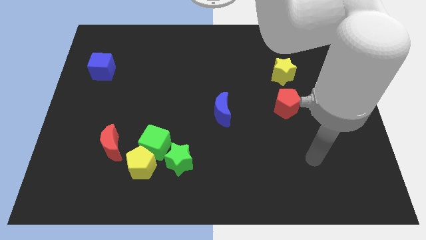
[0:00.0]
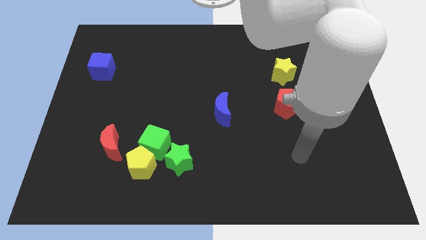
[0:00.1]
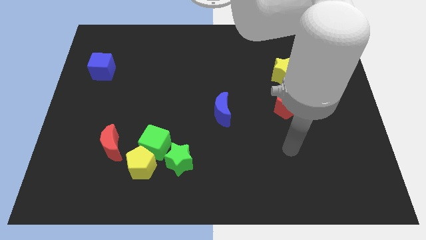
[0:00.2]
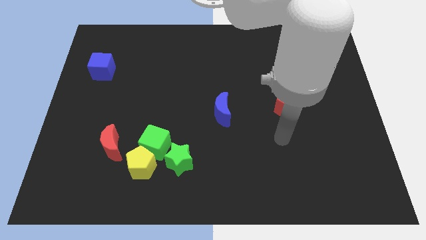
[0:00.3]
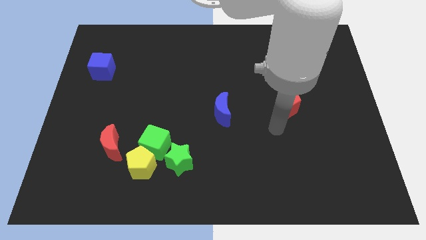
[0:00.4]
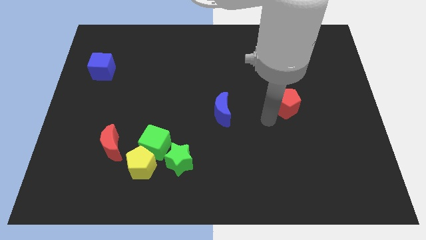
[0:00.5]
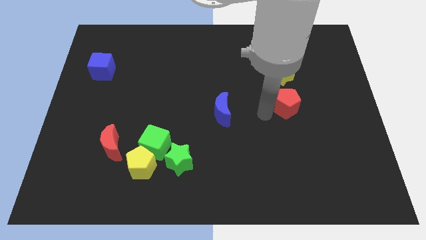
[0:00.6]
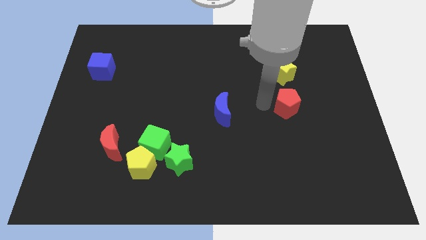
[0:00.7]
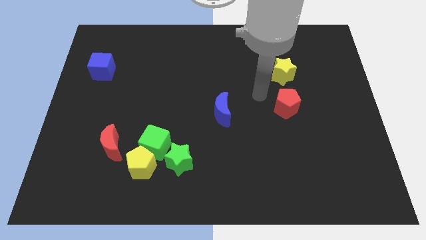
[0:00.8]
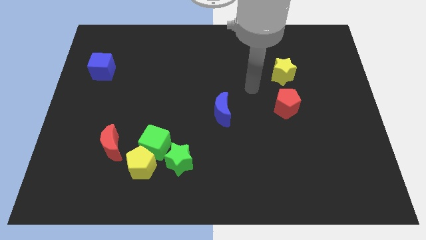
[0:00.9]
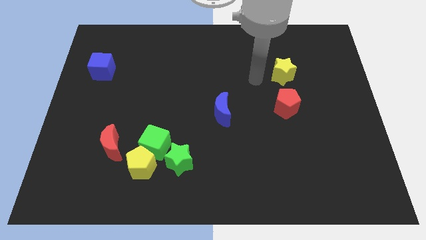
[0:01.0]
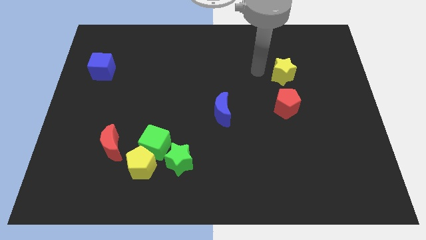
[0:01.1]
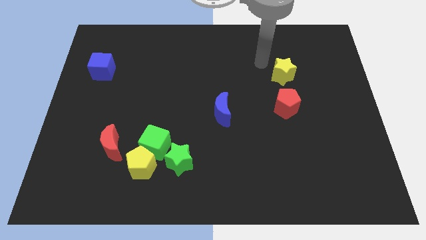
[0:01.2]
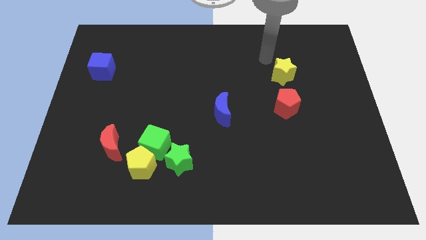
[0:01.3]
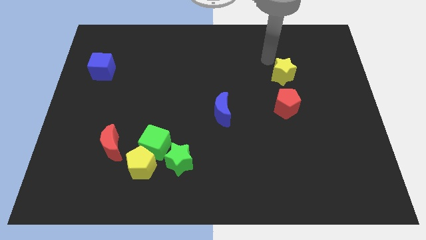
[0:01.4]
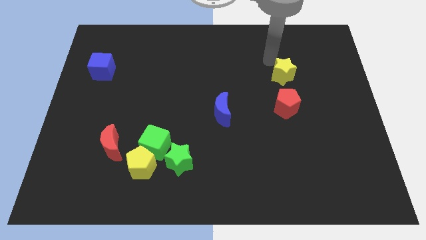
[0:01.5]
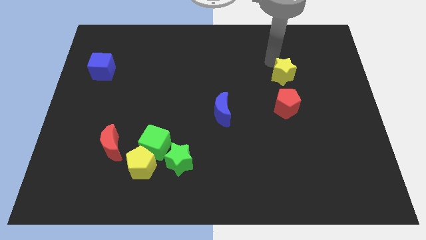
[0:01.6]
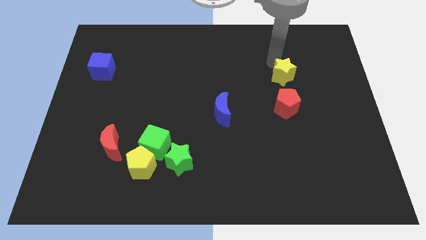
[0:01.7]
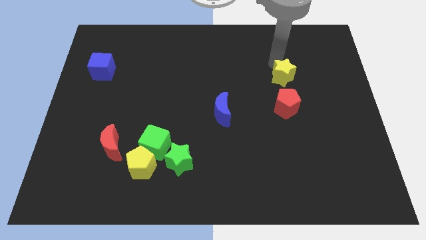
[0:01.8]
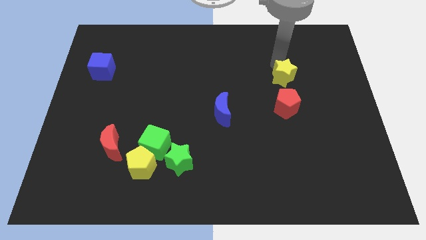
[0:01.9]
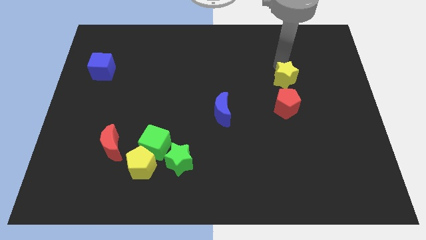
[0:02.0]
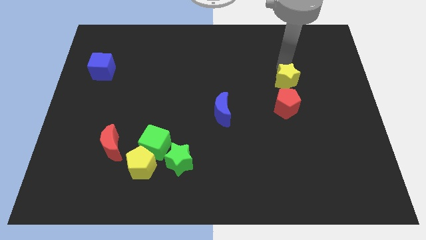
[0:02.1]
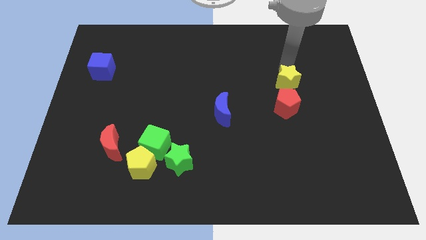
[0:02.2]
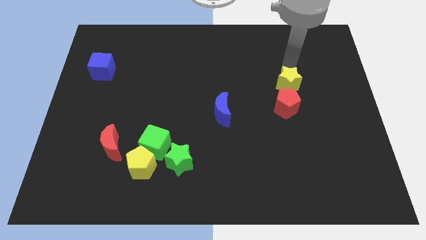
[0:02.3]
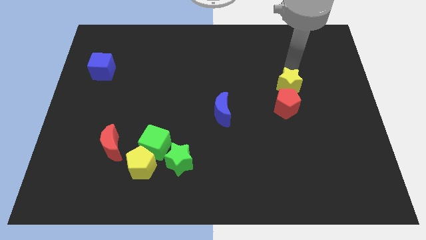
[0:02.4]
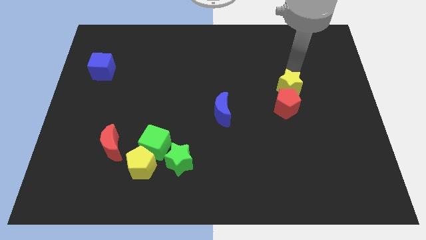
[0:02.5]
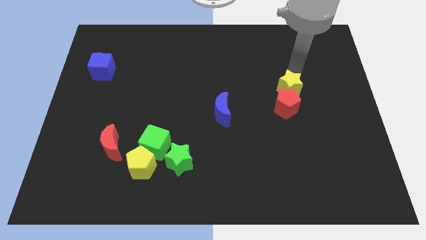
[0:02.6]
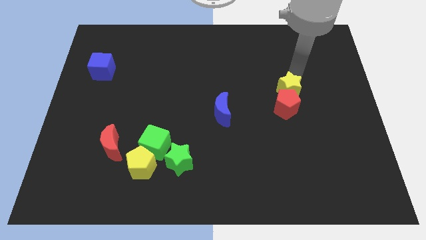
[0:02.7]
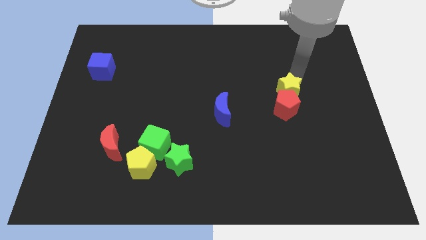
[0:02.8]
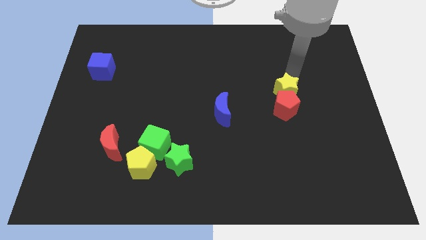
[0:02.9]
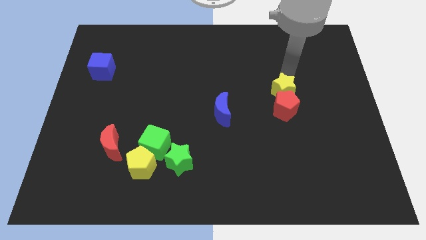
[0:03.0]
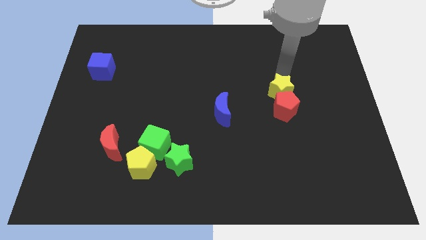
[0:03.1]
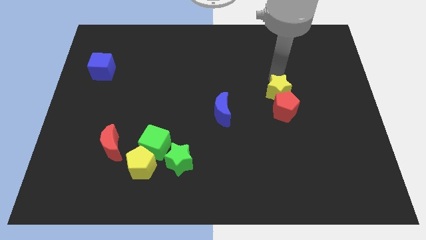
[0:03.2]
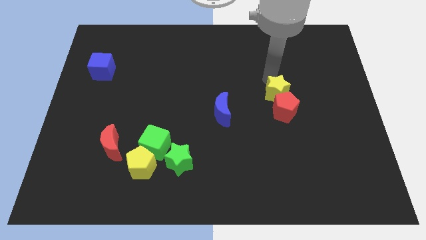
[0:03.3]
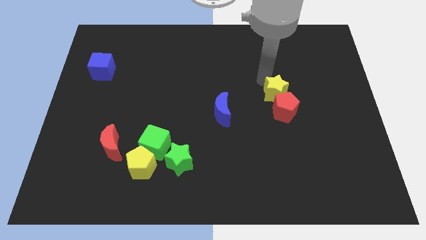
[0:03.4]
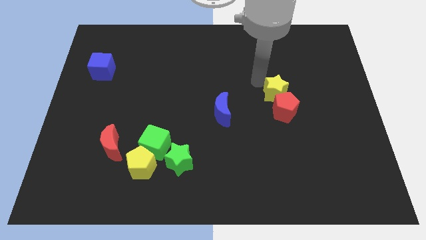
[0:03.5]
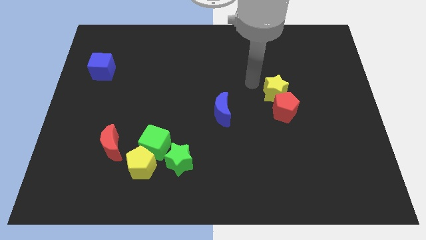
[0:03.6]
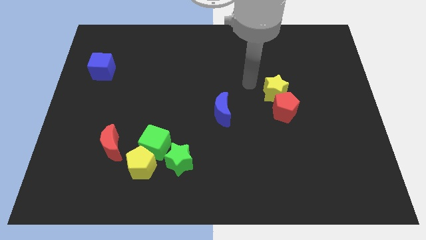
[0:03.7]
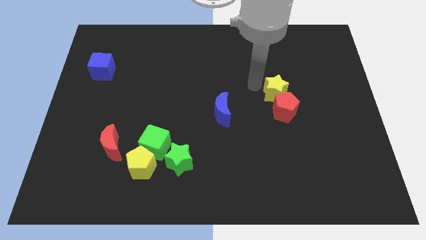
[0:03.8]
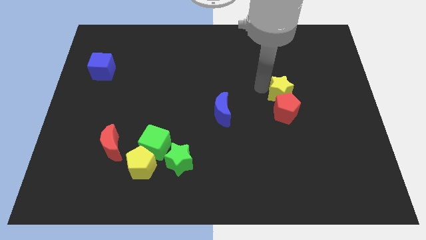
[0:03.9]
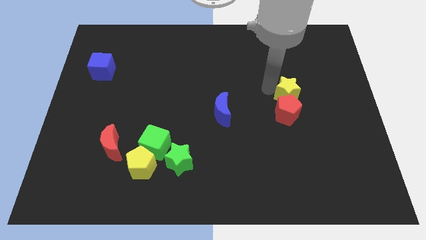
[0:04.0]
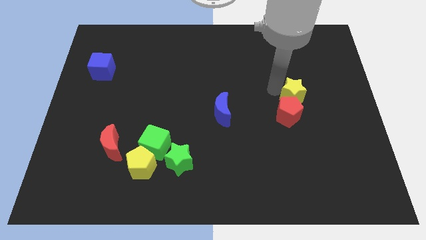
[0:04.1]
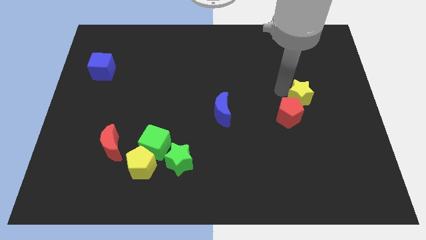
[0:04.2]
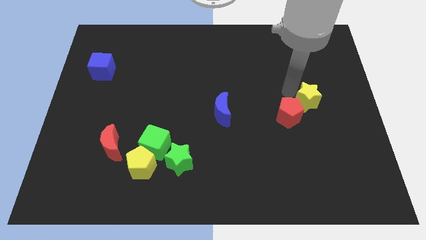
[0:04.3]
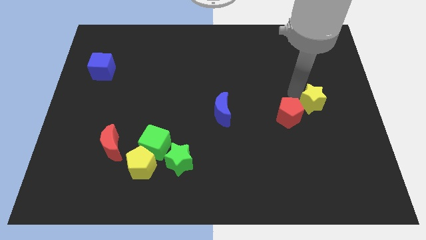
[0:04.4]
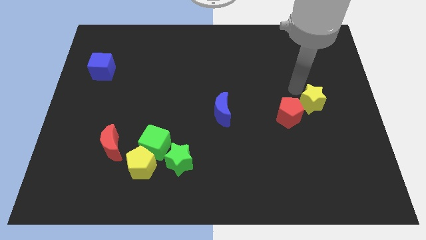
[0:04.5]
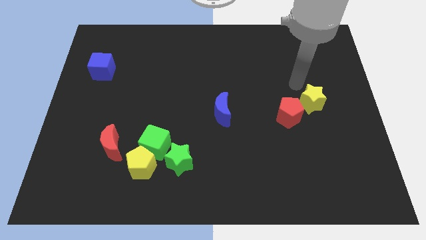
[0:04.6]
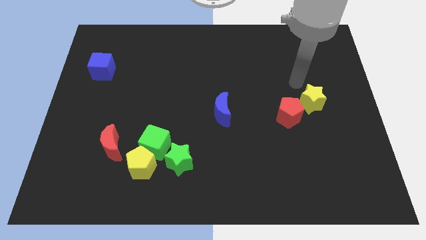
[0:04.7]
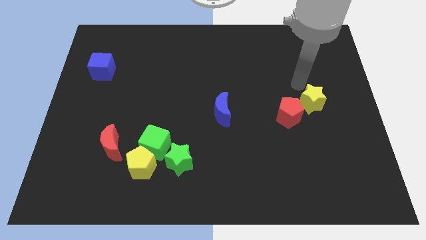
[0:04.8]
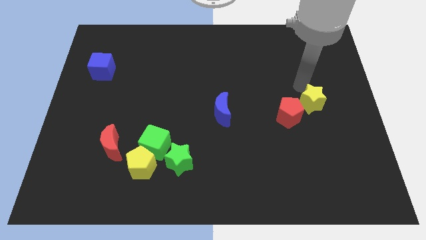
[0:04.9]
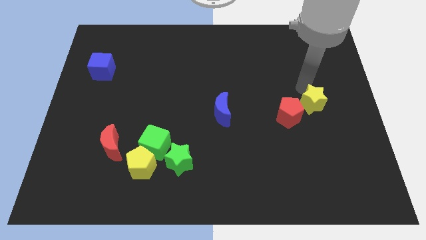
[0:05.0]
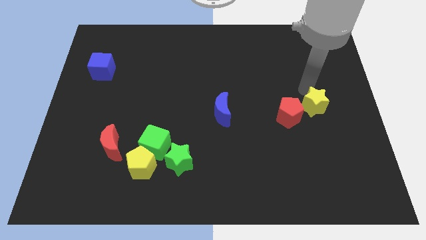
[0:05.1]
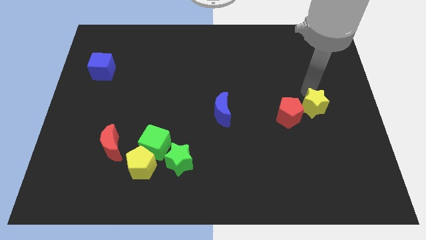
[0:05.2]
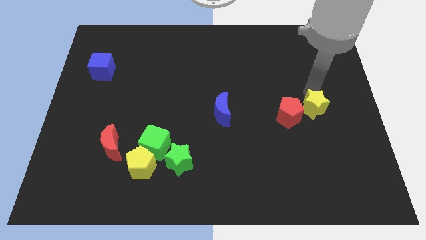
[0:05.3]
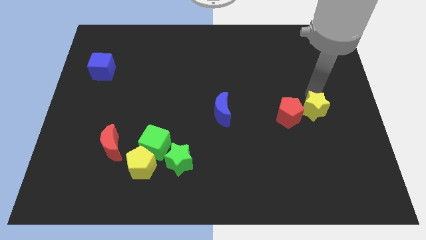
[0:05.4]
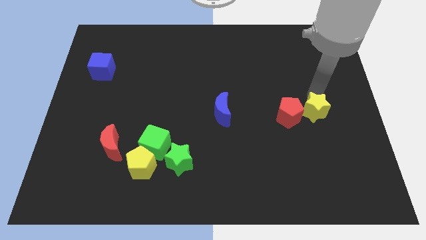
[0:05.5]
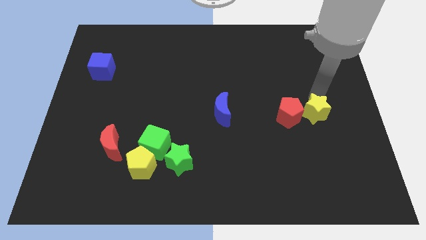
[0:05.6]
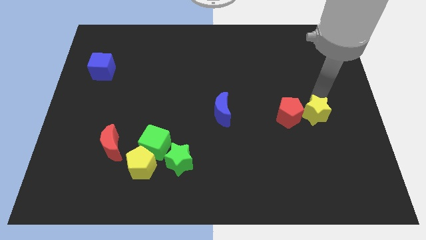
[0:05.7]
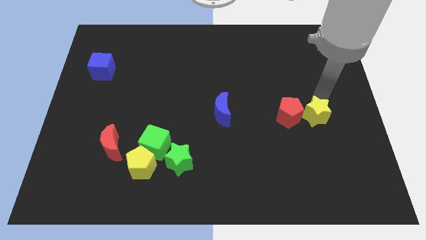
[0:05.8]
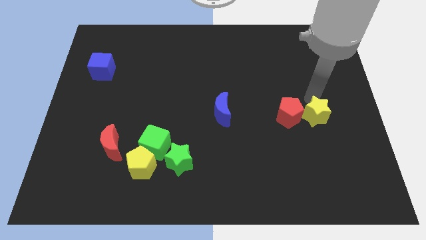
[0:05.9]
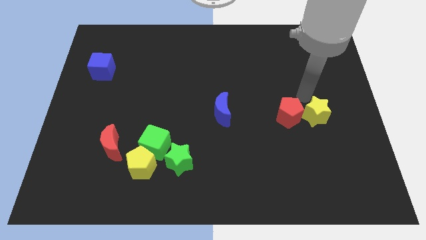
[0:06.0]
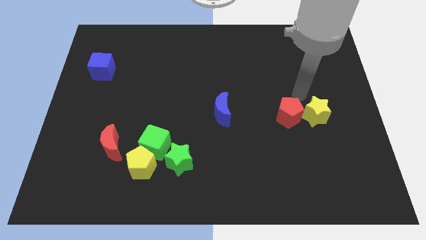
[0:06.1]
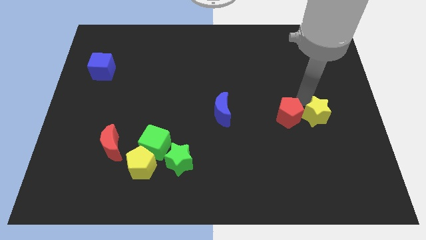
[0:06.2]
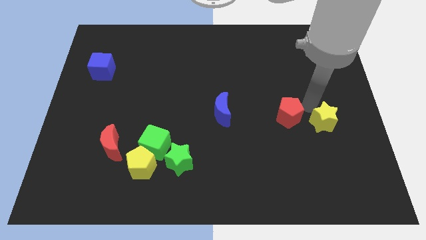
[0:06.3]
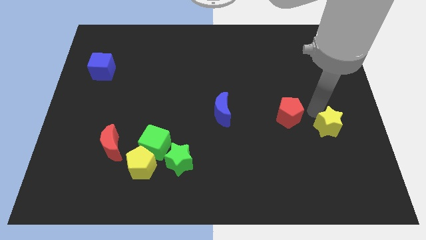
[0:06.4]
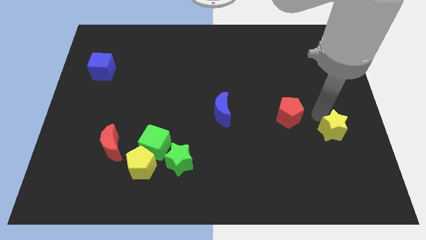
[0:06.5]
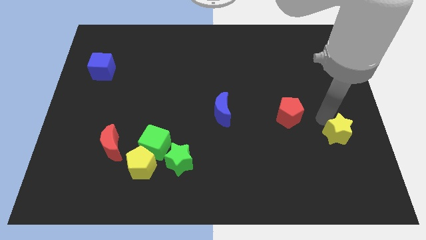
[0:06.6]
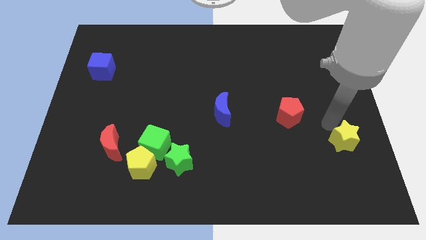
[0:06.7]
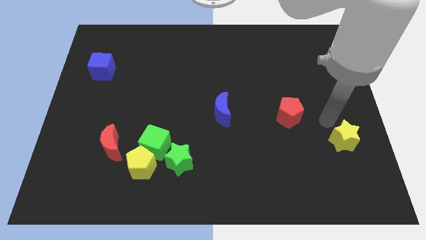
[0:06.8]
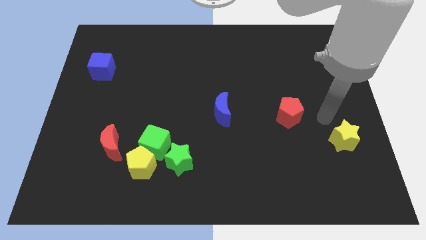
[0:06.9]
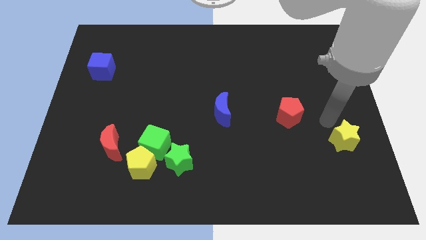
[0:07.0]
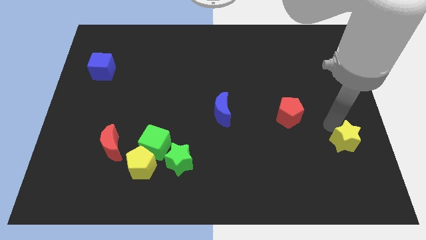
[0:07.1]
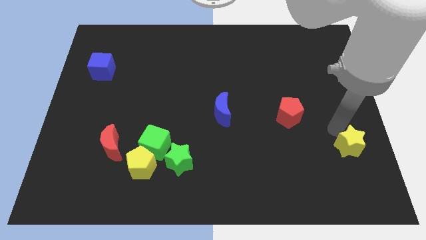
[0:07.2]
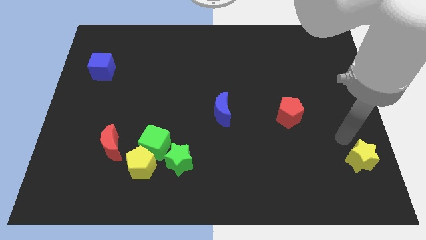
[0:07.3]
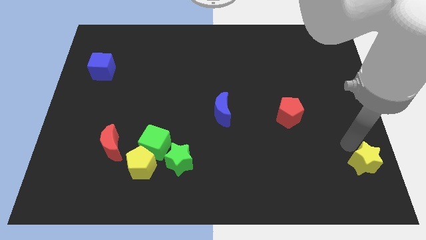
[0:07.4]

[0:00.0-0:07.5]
move the yellow star to the bottom right of the board
